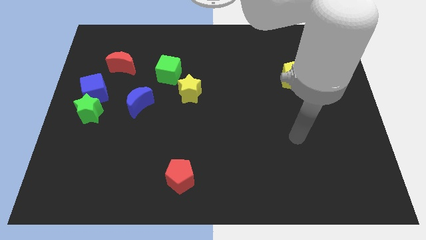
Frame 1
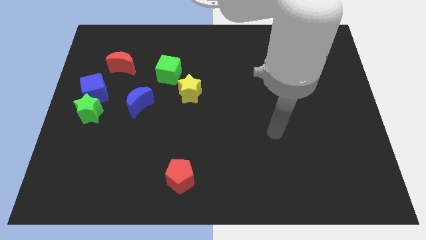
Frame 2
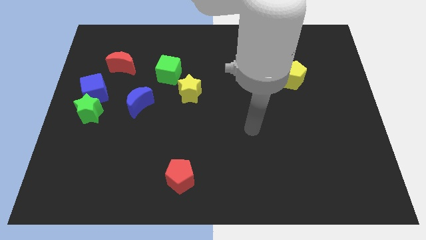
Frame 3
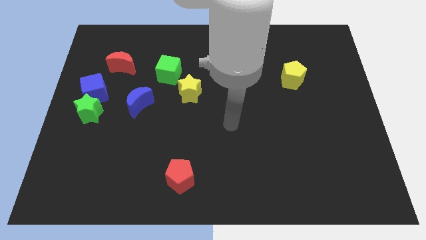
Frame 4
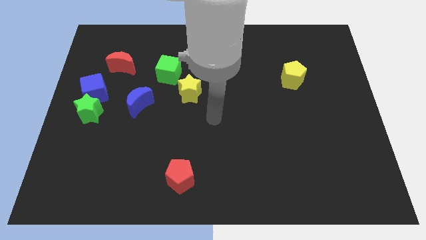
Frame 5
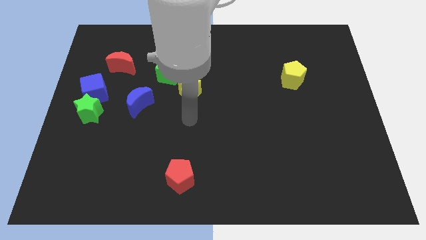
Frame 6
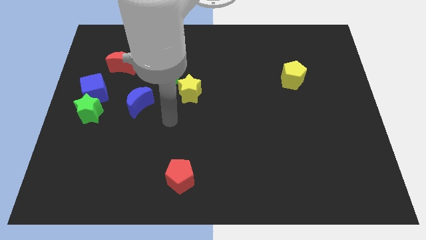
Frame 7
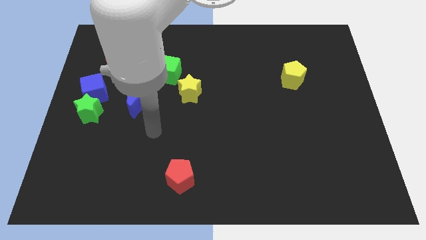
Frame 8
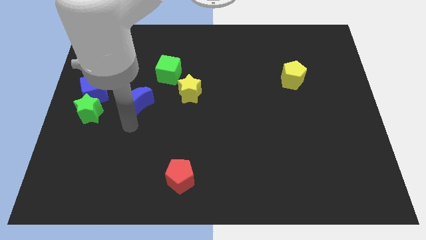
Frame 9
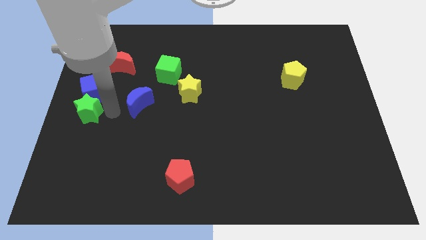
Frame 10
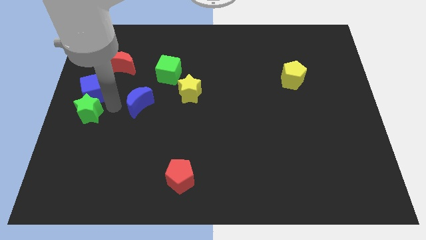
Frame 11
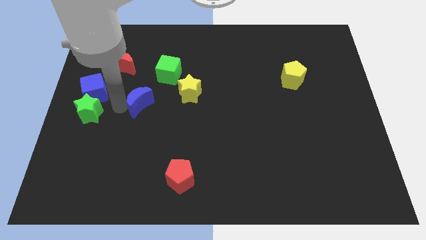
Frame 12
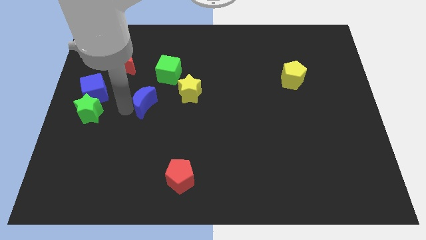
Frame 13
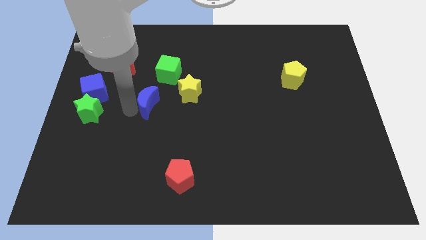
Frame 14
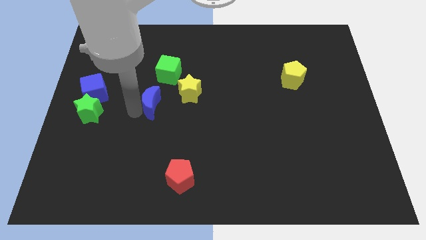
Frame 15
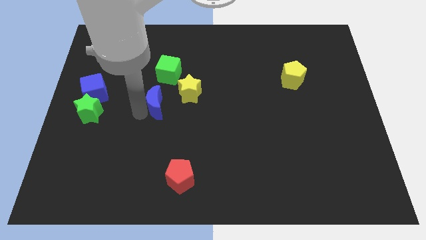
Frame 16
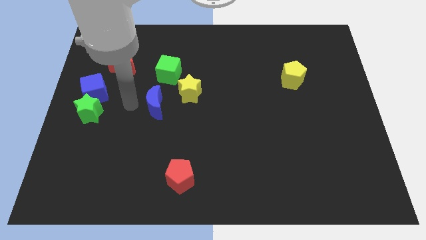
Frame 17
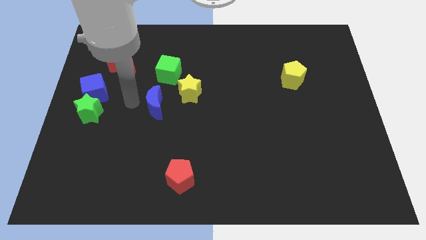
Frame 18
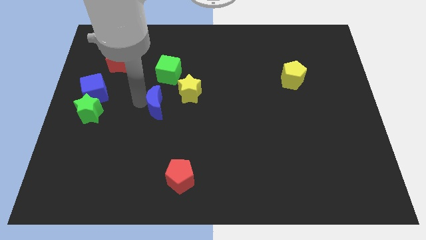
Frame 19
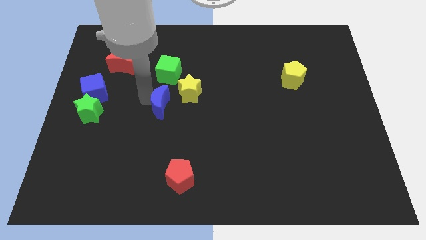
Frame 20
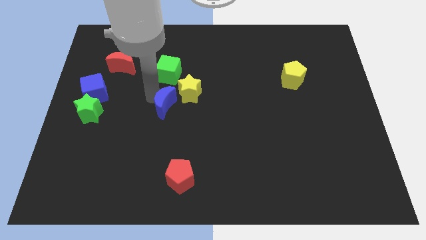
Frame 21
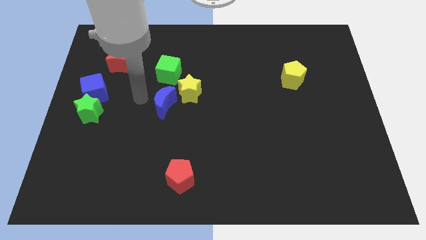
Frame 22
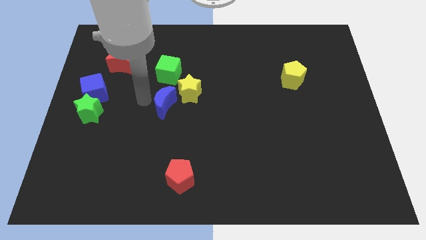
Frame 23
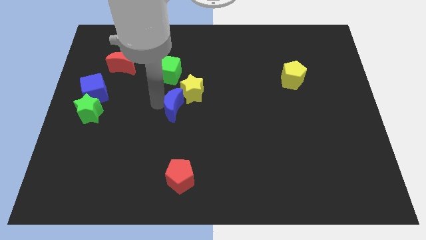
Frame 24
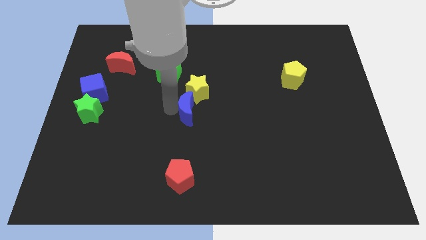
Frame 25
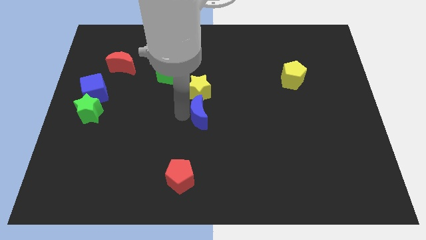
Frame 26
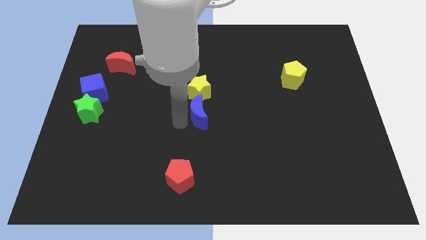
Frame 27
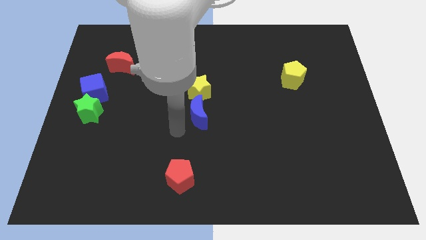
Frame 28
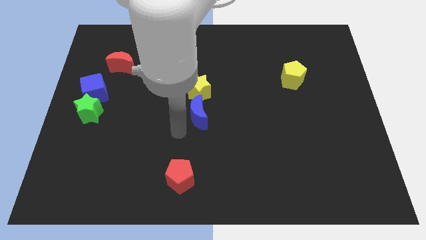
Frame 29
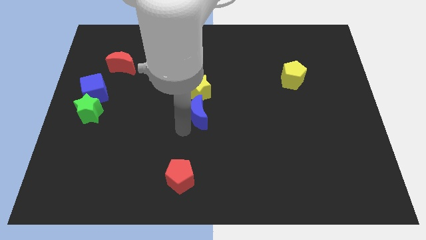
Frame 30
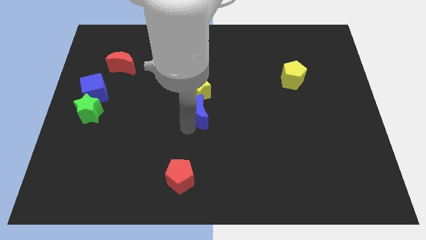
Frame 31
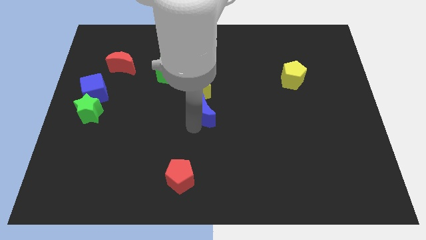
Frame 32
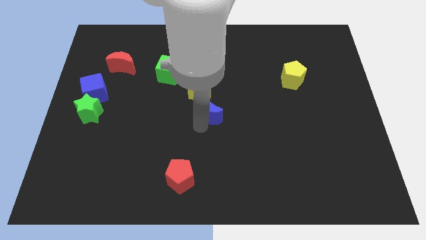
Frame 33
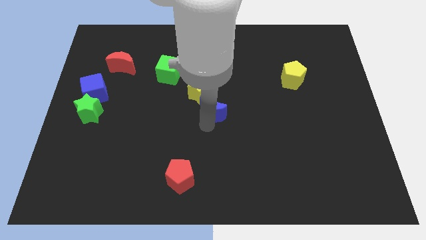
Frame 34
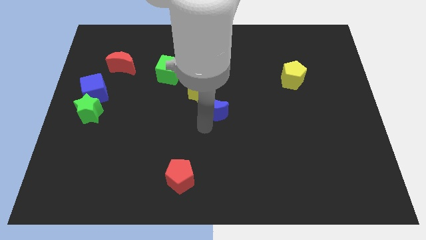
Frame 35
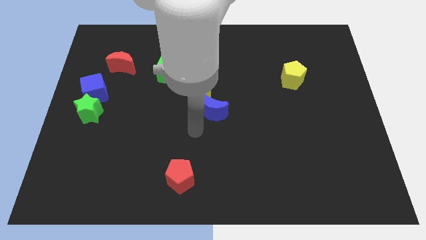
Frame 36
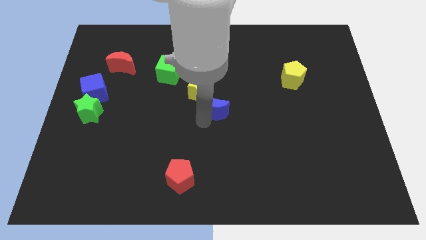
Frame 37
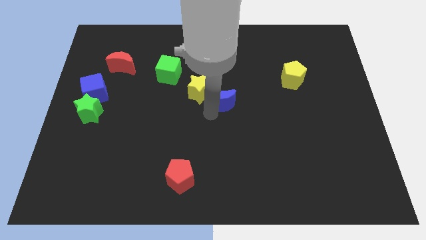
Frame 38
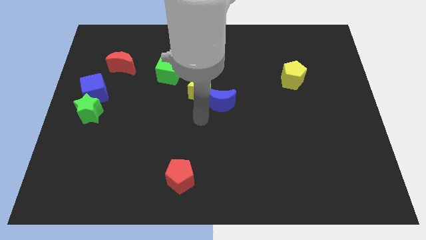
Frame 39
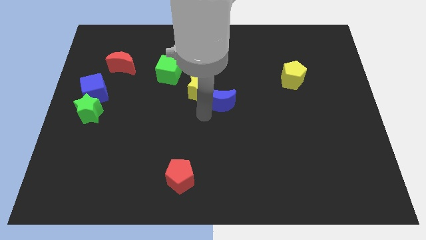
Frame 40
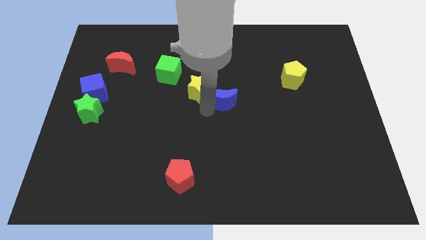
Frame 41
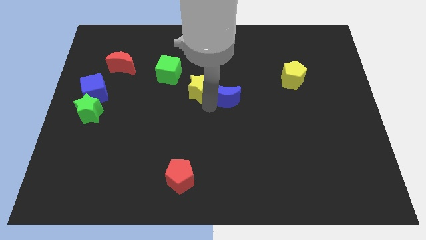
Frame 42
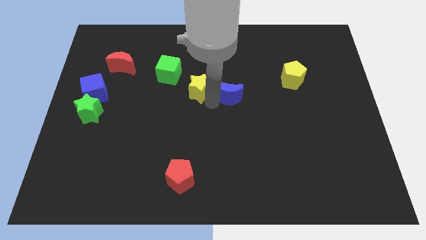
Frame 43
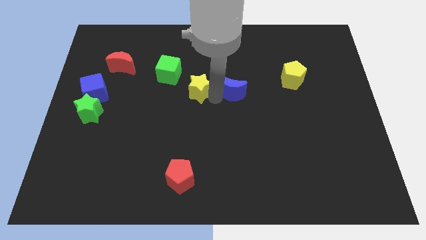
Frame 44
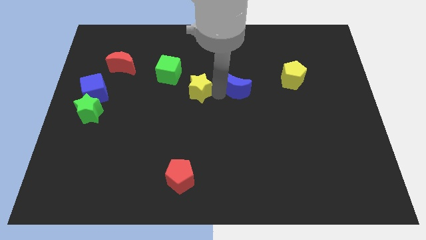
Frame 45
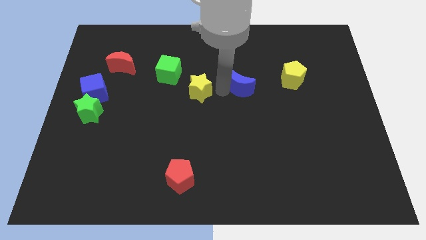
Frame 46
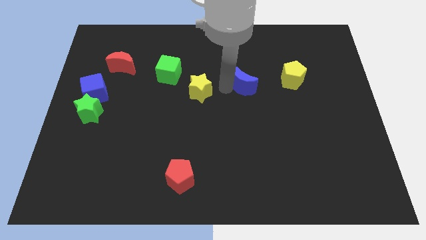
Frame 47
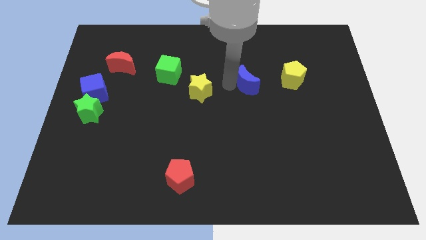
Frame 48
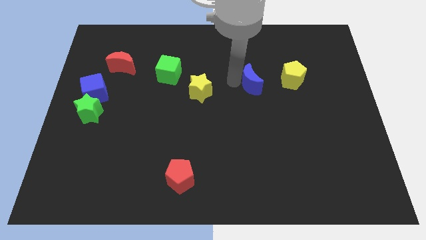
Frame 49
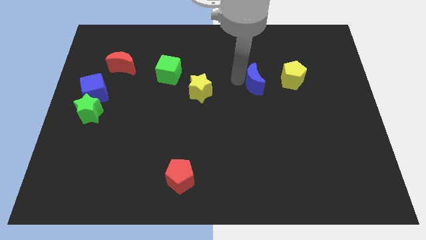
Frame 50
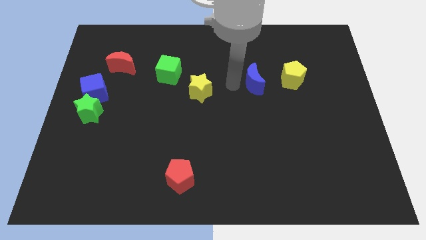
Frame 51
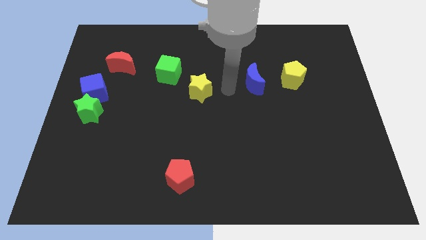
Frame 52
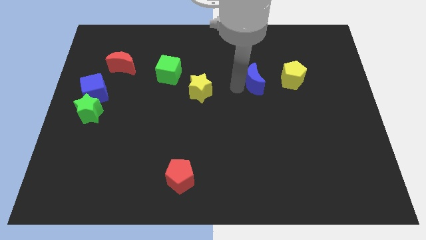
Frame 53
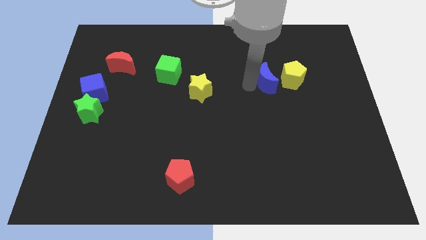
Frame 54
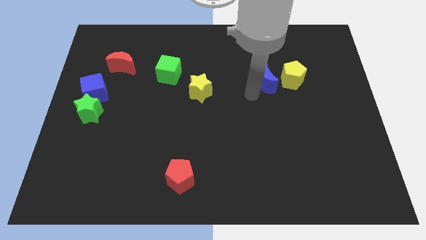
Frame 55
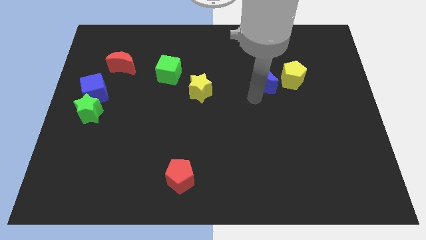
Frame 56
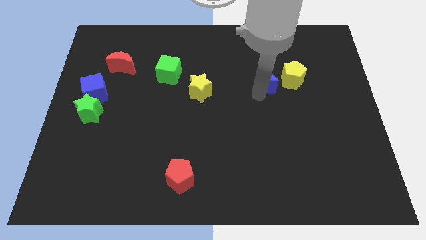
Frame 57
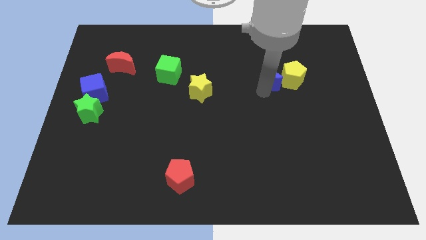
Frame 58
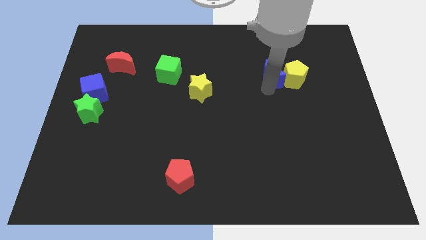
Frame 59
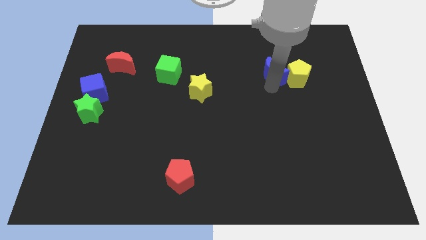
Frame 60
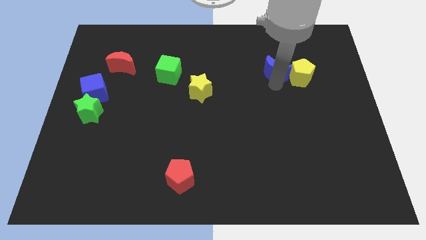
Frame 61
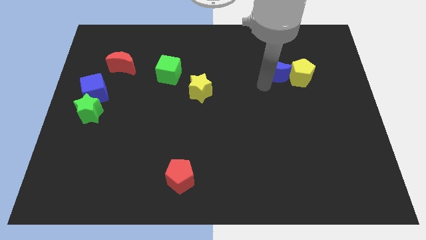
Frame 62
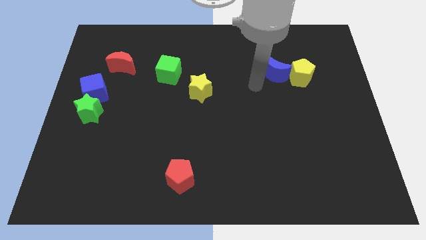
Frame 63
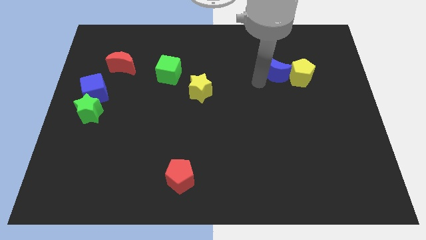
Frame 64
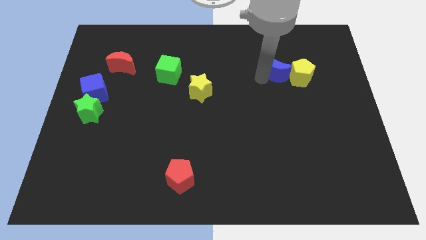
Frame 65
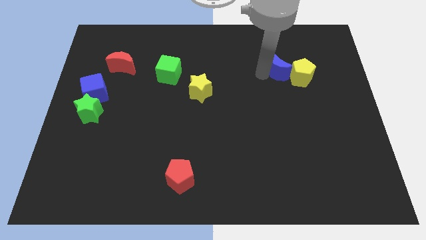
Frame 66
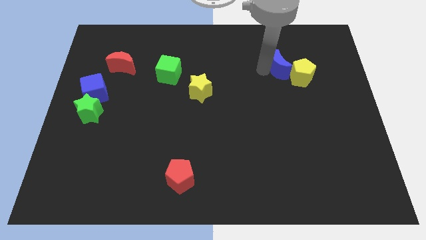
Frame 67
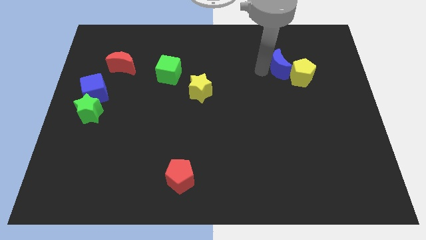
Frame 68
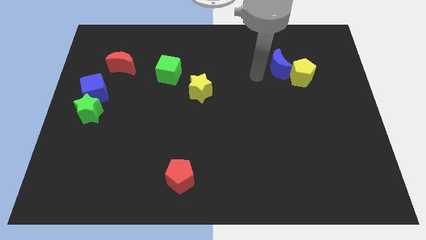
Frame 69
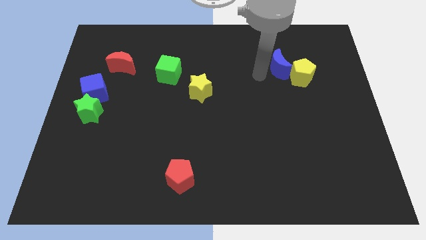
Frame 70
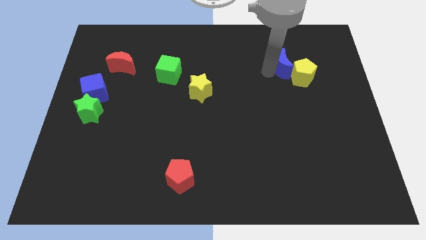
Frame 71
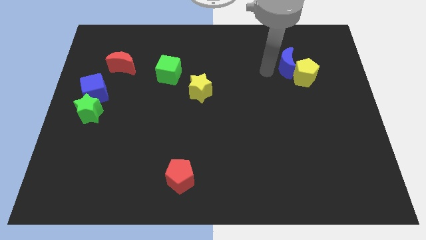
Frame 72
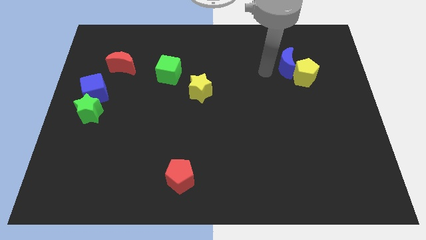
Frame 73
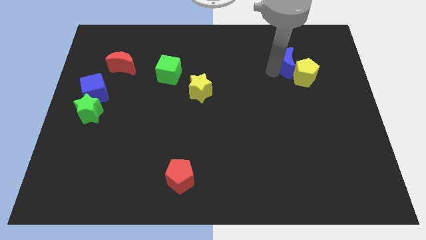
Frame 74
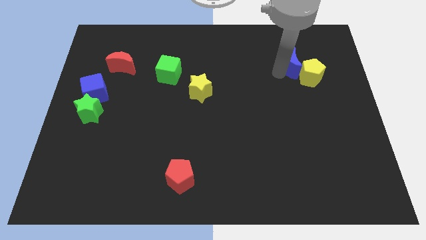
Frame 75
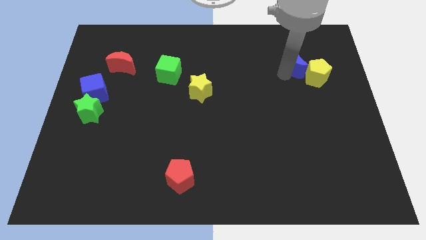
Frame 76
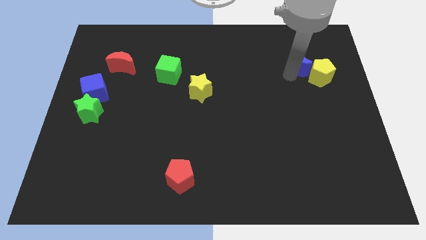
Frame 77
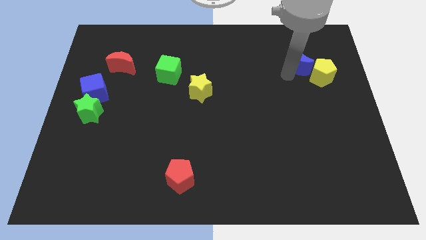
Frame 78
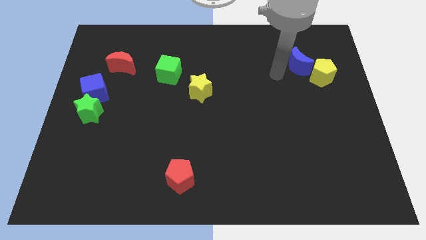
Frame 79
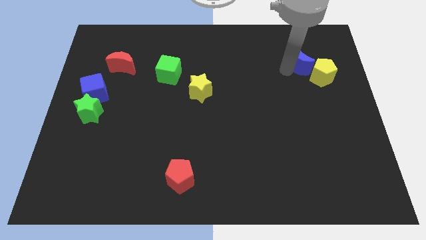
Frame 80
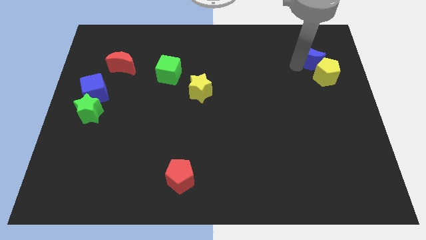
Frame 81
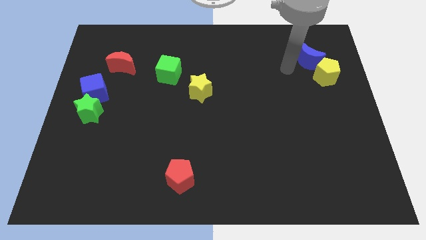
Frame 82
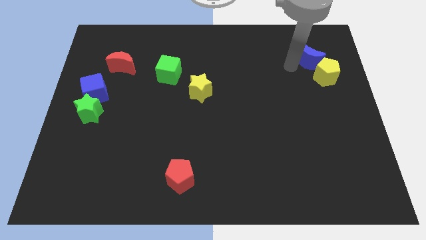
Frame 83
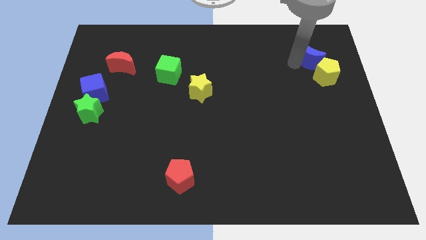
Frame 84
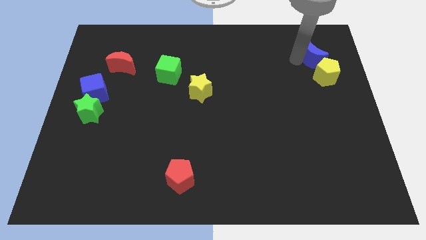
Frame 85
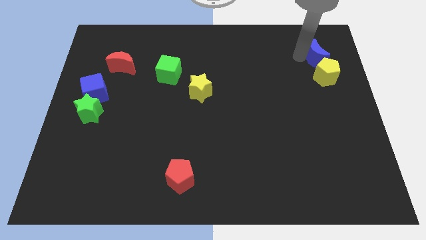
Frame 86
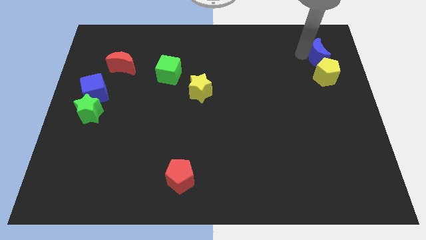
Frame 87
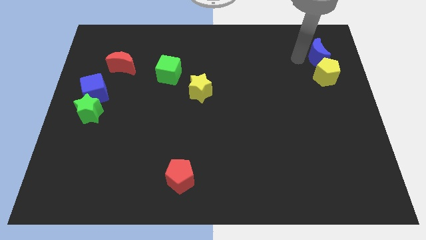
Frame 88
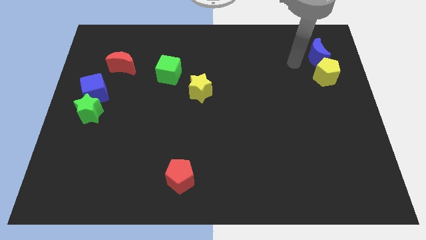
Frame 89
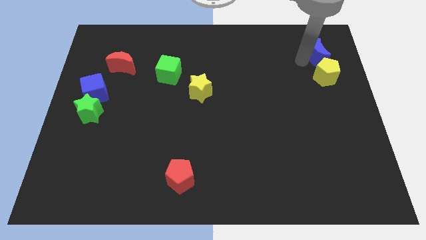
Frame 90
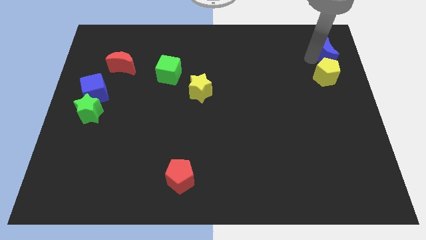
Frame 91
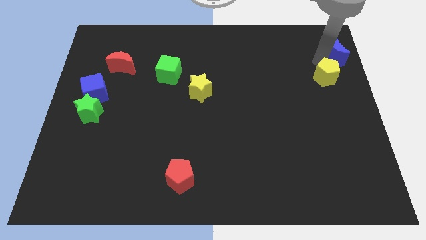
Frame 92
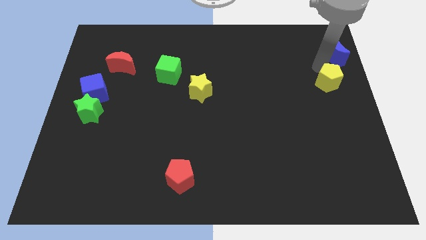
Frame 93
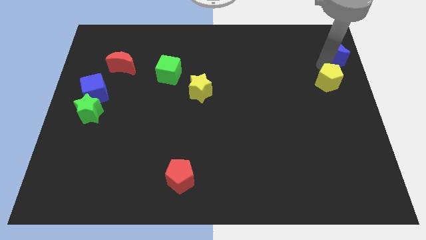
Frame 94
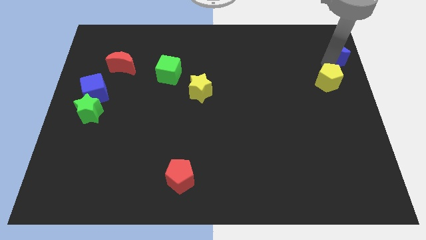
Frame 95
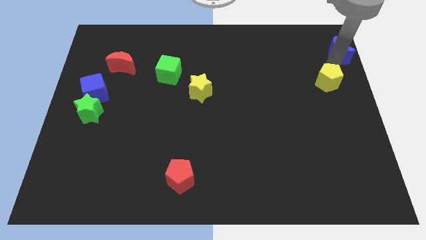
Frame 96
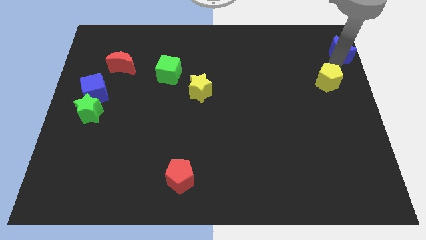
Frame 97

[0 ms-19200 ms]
put the blue moon to the top right corner
